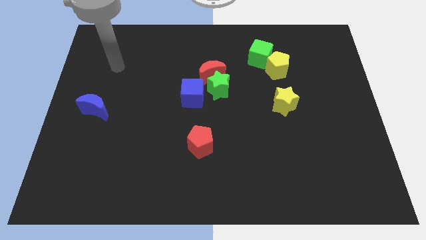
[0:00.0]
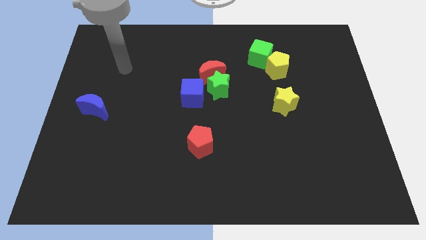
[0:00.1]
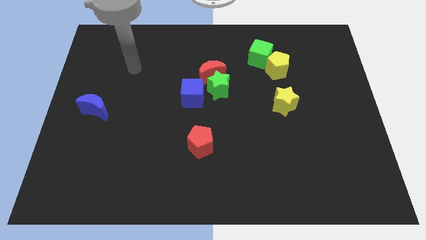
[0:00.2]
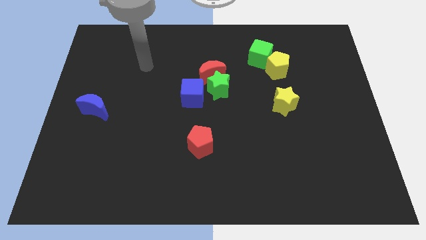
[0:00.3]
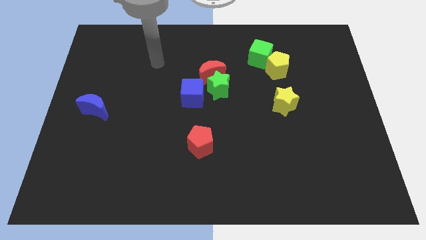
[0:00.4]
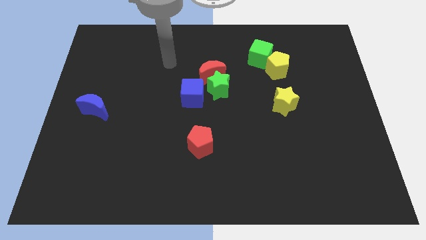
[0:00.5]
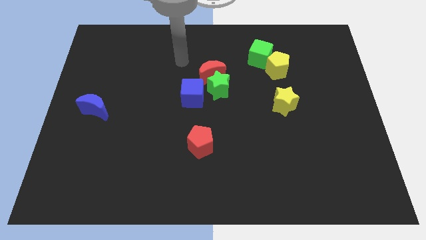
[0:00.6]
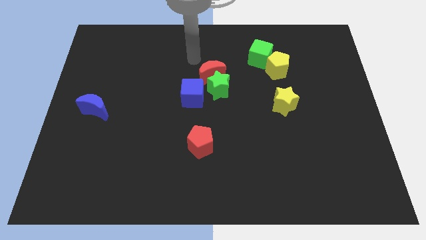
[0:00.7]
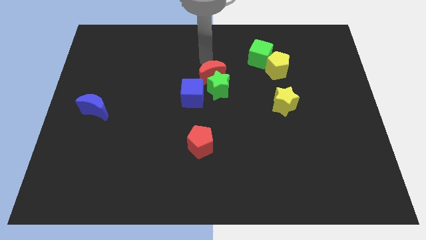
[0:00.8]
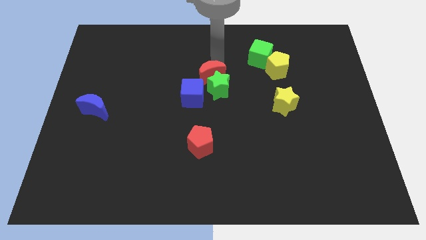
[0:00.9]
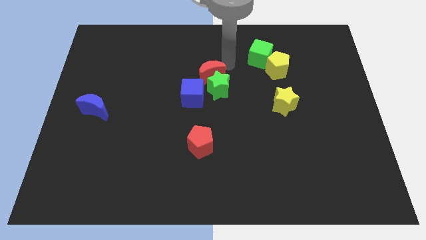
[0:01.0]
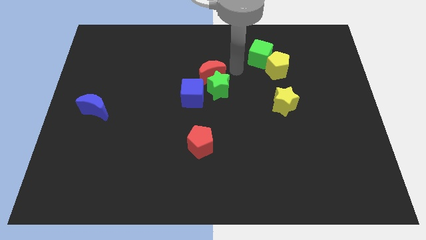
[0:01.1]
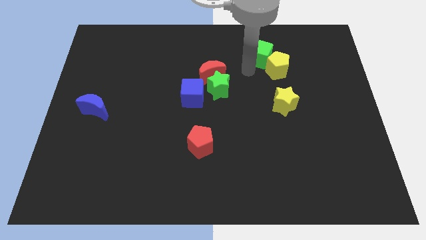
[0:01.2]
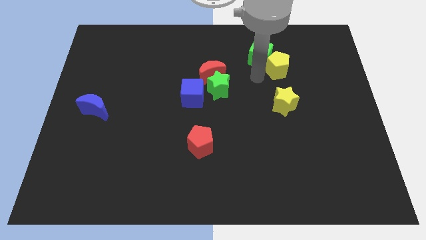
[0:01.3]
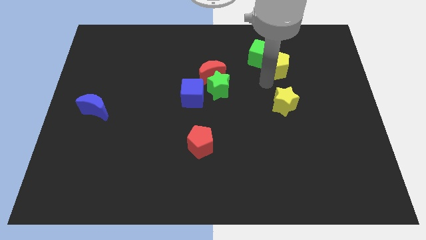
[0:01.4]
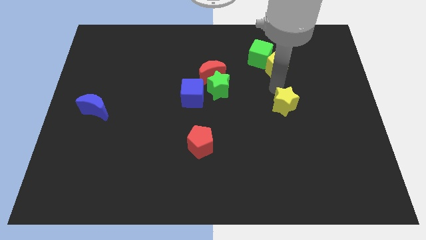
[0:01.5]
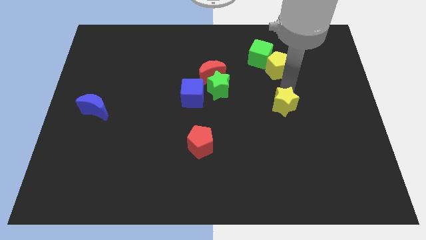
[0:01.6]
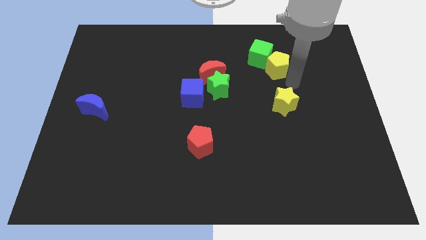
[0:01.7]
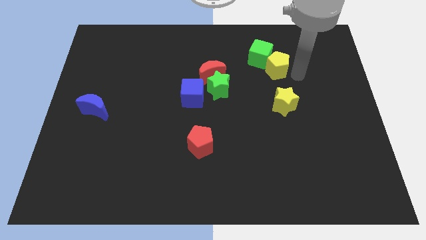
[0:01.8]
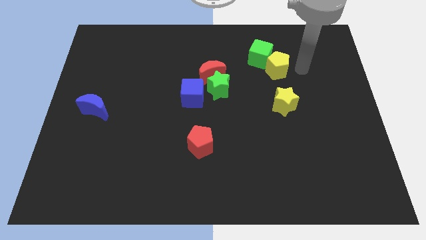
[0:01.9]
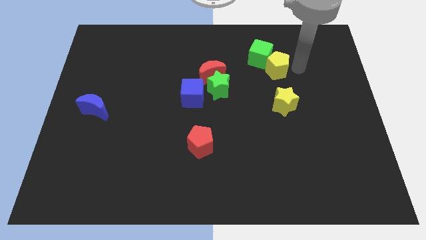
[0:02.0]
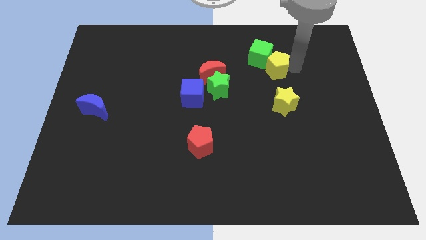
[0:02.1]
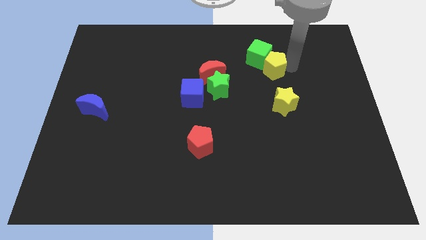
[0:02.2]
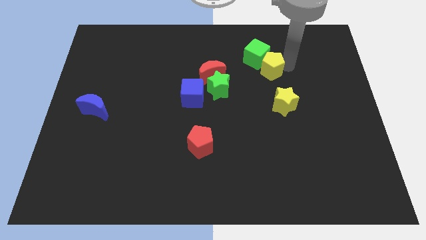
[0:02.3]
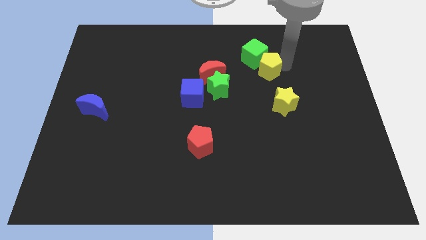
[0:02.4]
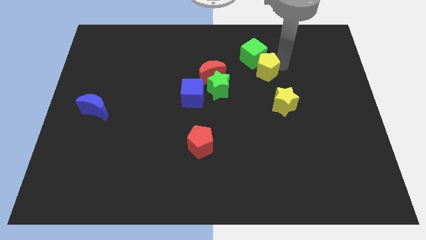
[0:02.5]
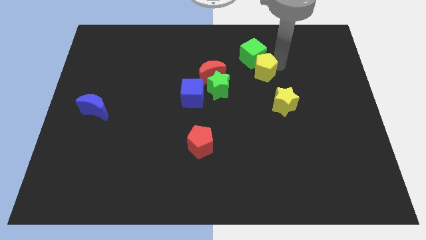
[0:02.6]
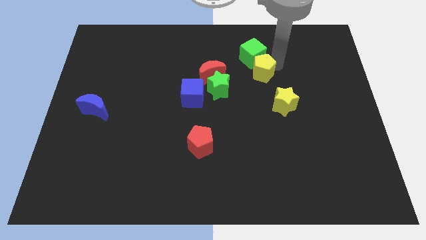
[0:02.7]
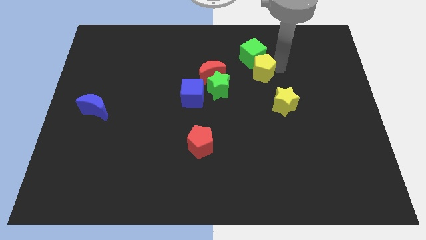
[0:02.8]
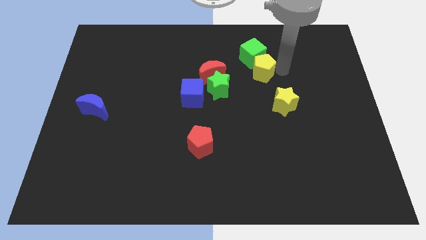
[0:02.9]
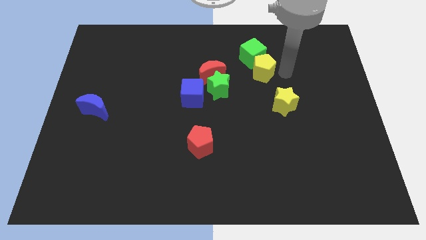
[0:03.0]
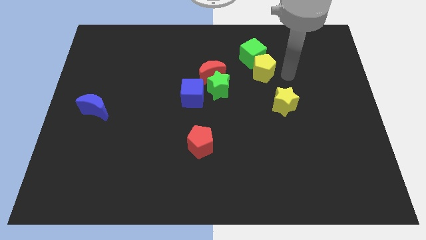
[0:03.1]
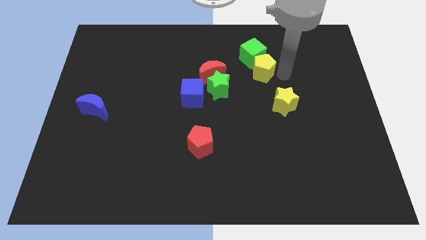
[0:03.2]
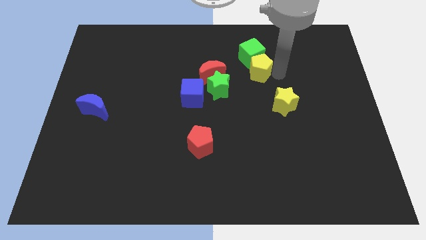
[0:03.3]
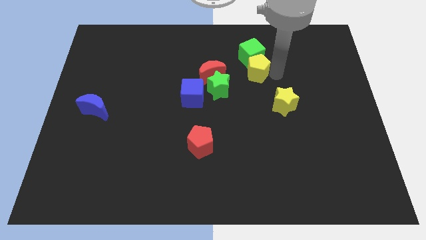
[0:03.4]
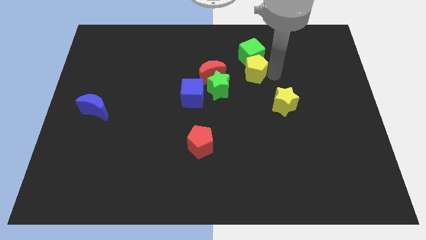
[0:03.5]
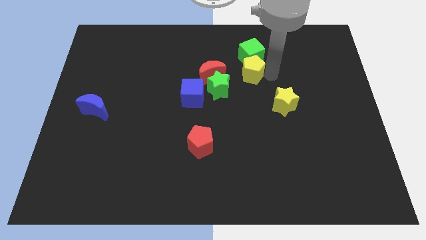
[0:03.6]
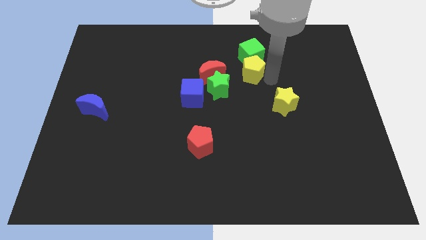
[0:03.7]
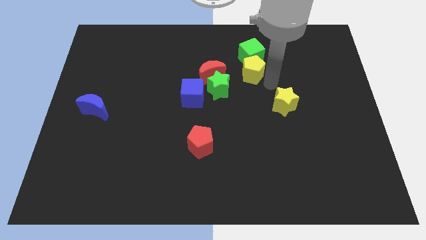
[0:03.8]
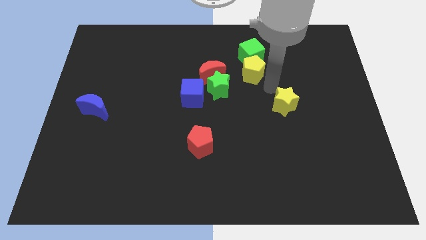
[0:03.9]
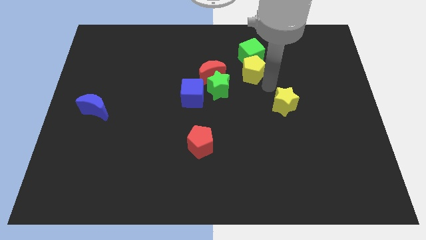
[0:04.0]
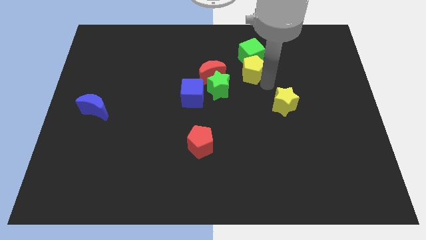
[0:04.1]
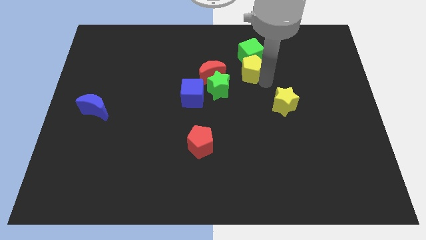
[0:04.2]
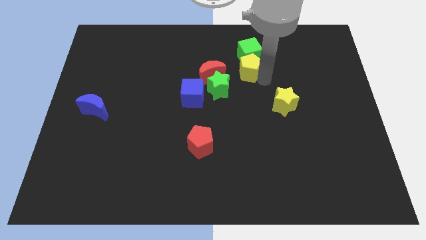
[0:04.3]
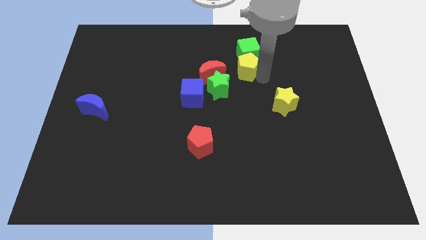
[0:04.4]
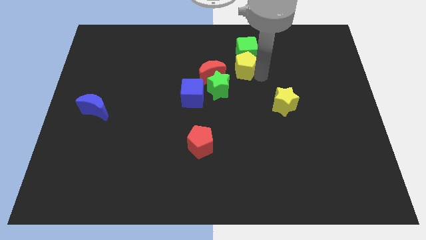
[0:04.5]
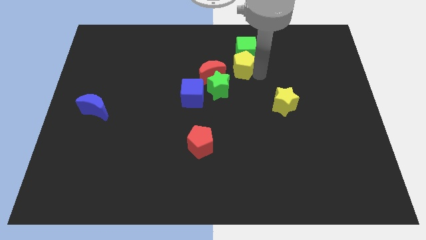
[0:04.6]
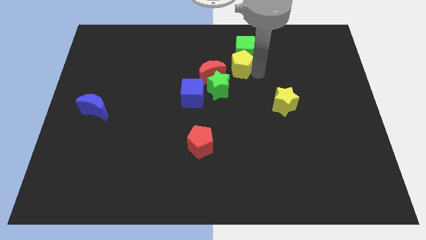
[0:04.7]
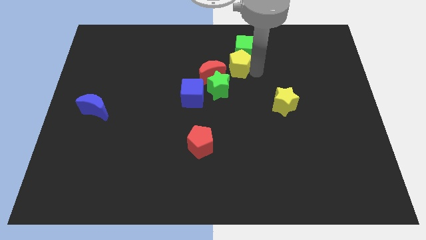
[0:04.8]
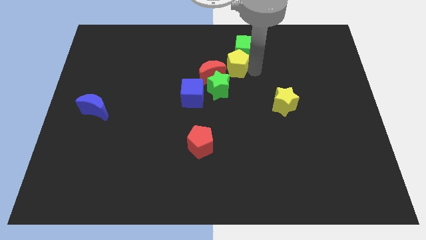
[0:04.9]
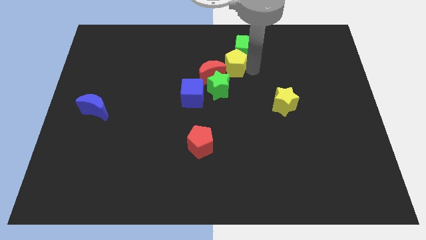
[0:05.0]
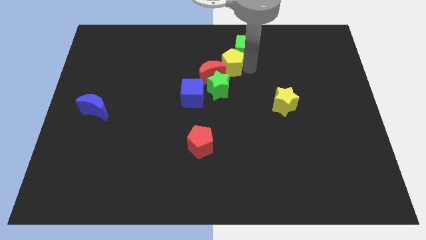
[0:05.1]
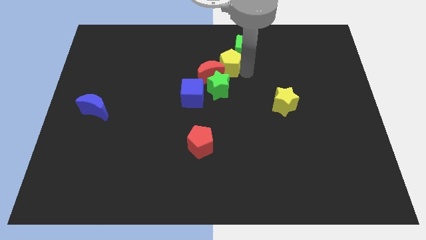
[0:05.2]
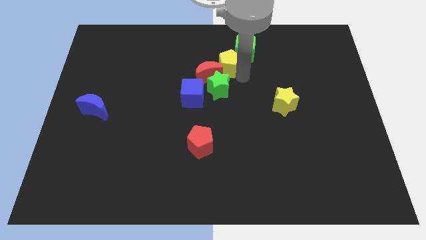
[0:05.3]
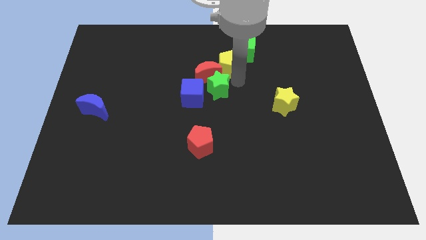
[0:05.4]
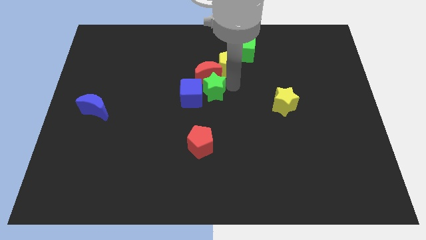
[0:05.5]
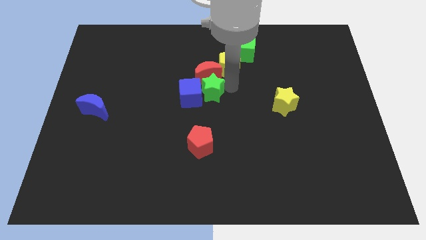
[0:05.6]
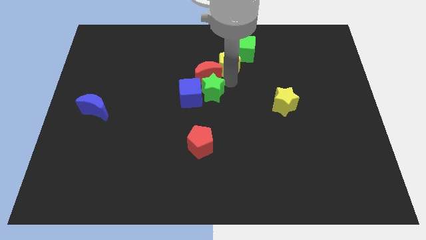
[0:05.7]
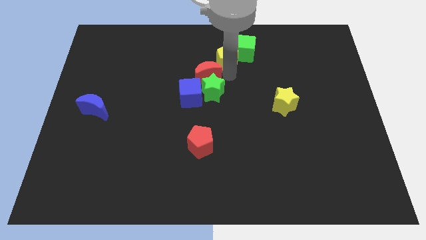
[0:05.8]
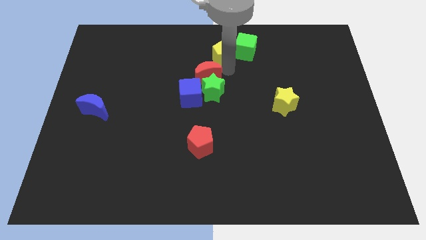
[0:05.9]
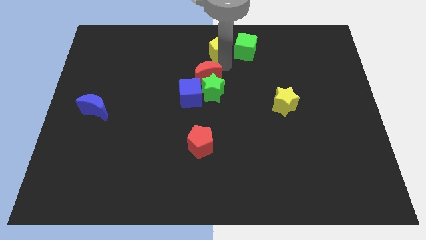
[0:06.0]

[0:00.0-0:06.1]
move the yellow pentagon to the towards your base

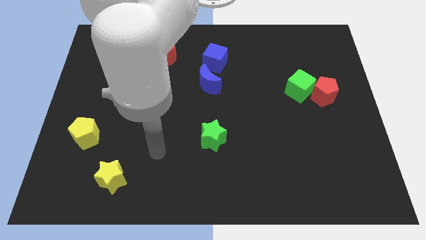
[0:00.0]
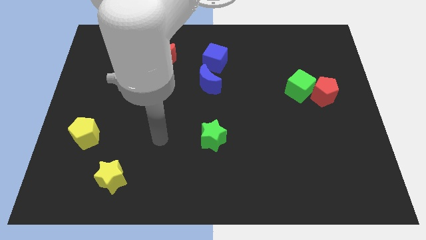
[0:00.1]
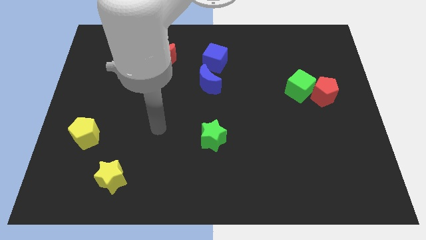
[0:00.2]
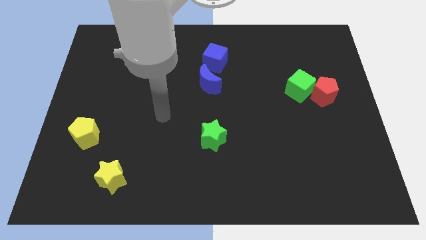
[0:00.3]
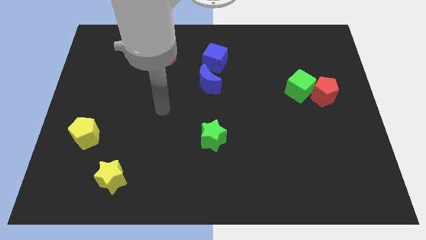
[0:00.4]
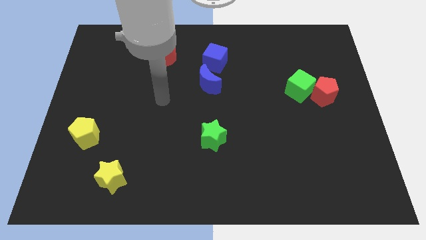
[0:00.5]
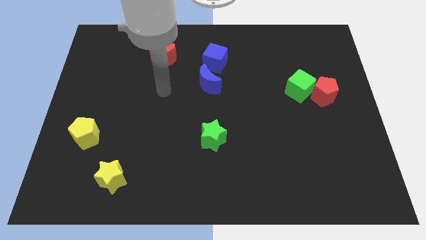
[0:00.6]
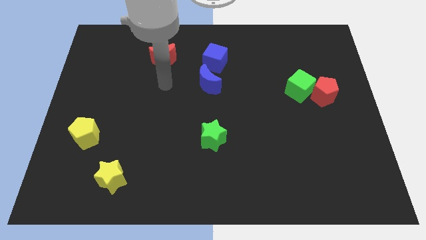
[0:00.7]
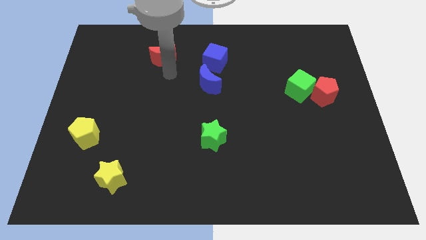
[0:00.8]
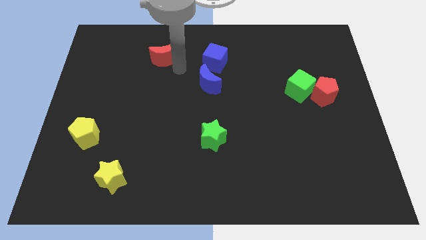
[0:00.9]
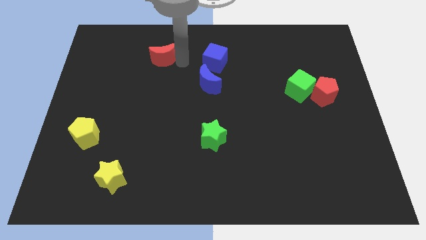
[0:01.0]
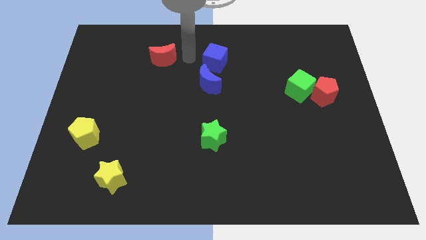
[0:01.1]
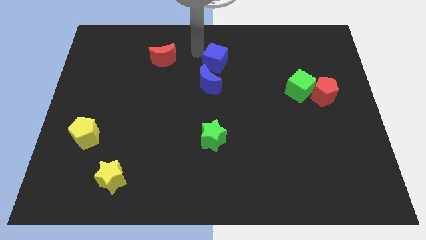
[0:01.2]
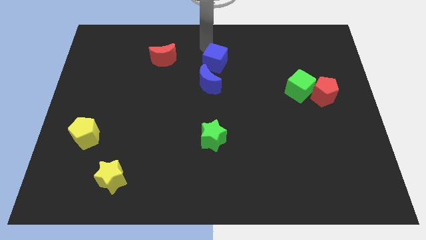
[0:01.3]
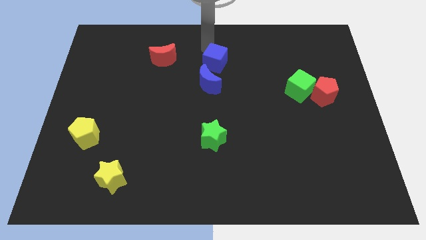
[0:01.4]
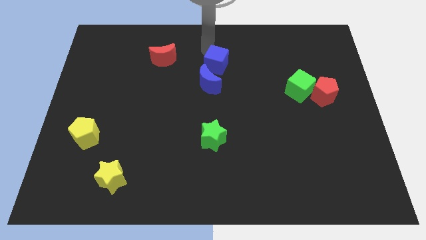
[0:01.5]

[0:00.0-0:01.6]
move the blue cube to the center of the board
